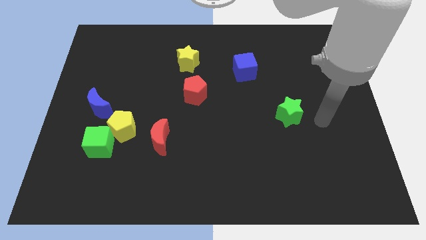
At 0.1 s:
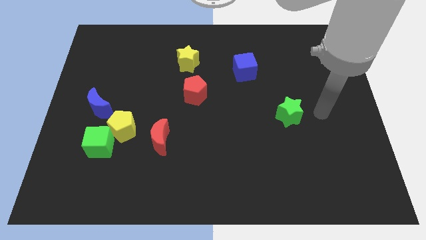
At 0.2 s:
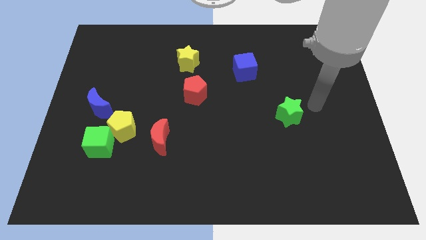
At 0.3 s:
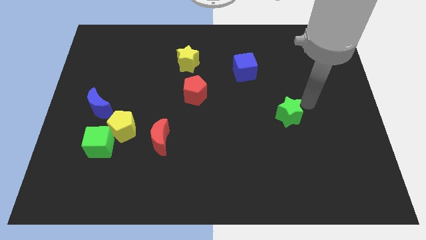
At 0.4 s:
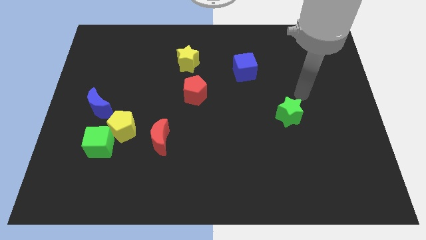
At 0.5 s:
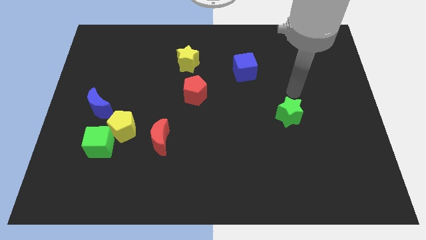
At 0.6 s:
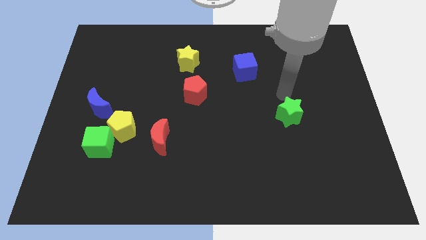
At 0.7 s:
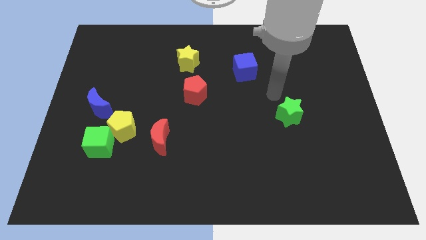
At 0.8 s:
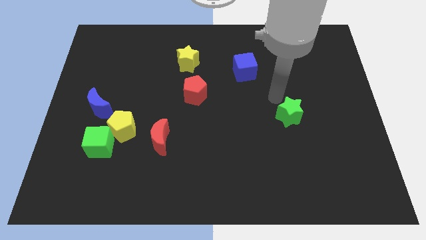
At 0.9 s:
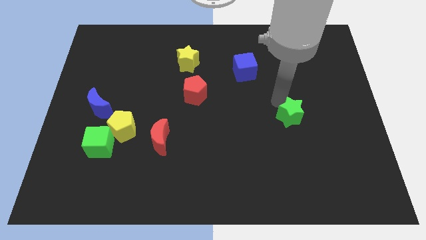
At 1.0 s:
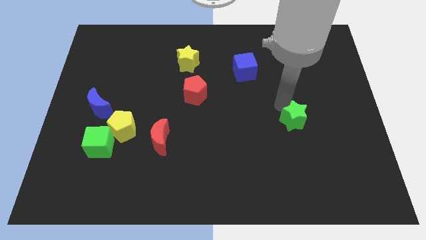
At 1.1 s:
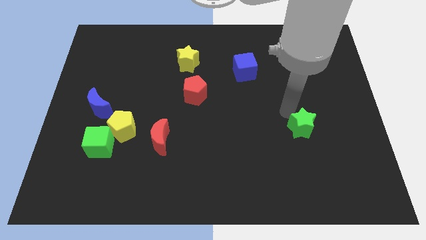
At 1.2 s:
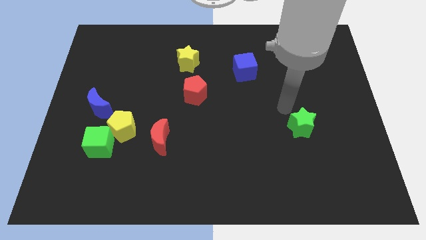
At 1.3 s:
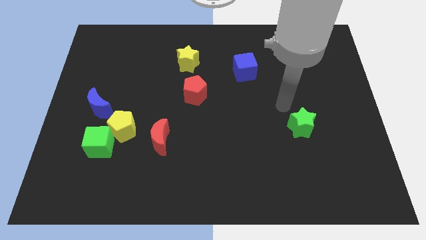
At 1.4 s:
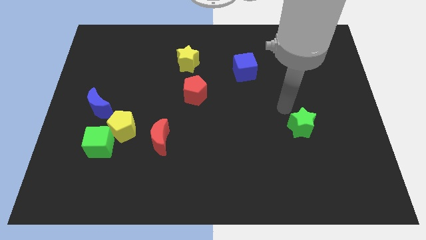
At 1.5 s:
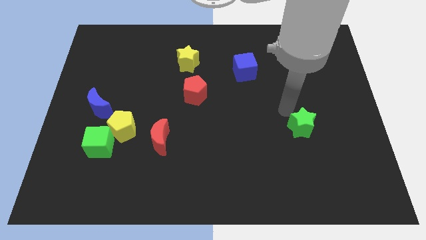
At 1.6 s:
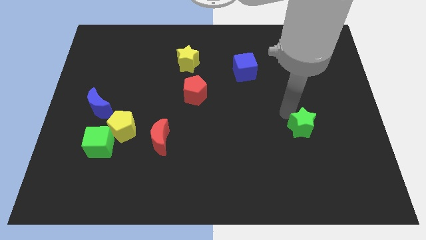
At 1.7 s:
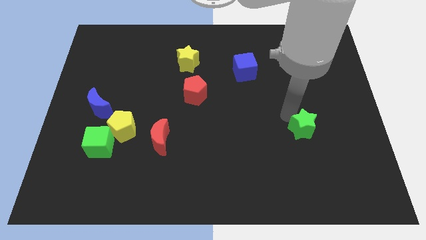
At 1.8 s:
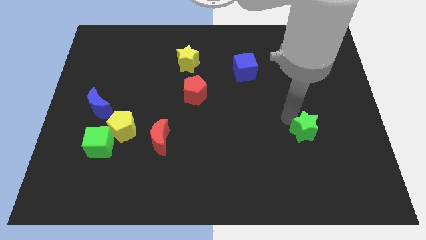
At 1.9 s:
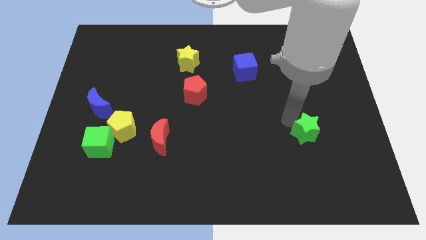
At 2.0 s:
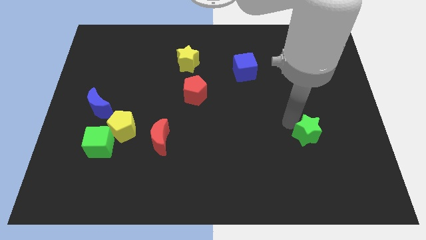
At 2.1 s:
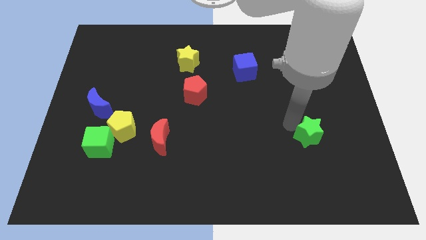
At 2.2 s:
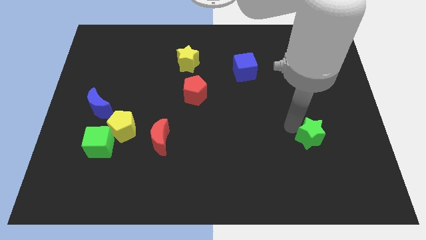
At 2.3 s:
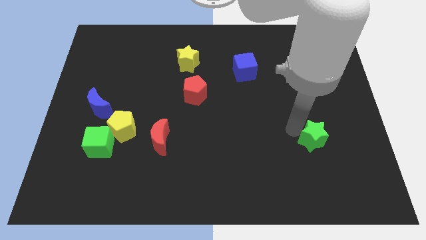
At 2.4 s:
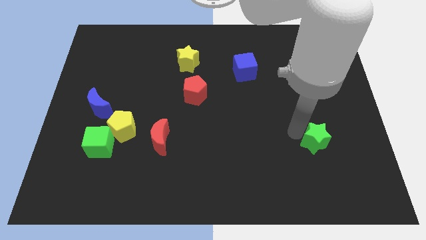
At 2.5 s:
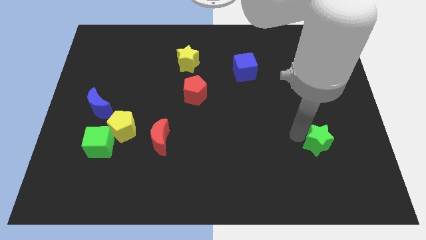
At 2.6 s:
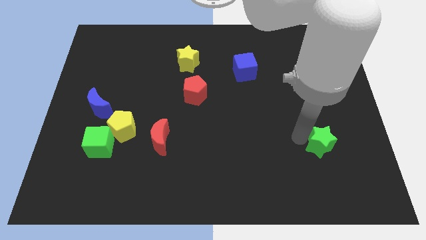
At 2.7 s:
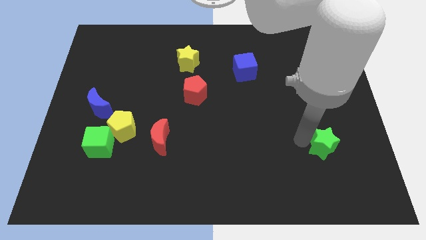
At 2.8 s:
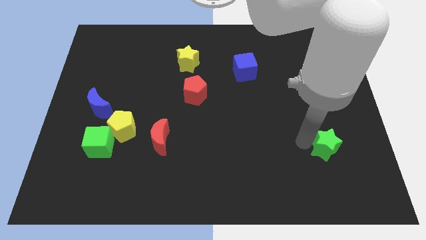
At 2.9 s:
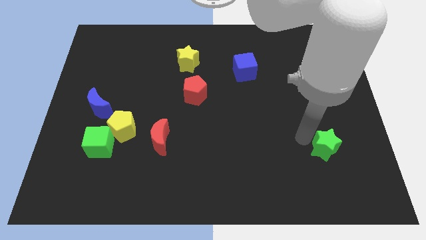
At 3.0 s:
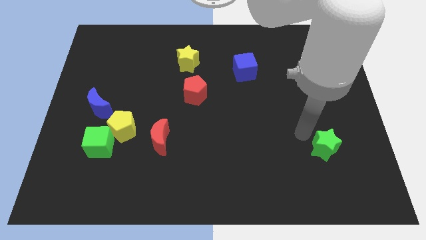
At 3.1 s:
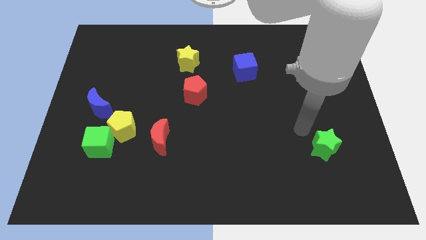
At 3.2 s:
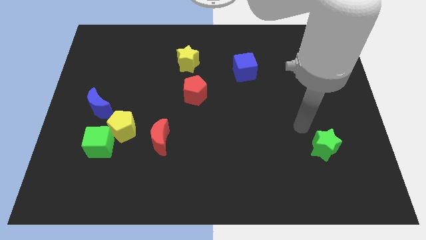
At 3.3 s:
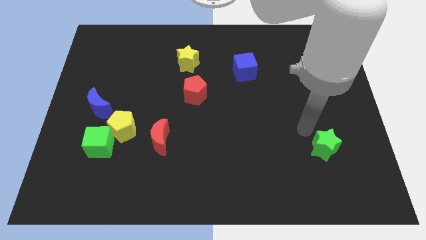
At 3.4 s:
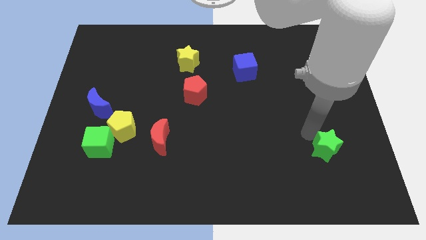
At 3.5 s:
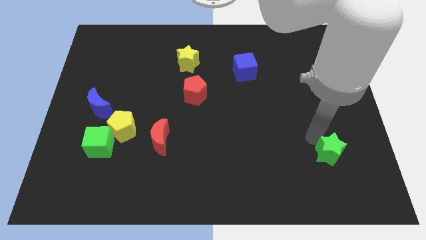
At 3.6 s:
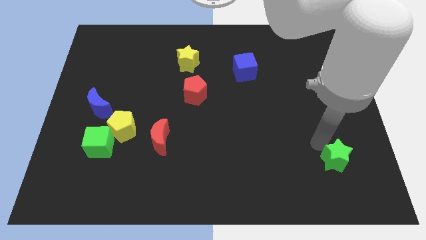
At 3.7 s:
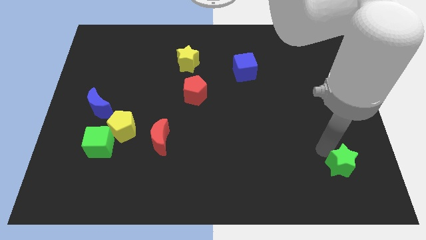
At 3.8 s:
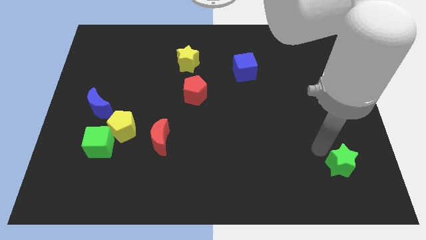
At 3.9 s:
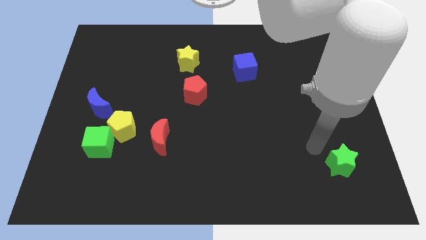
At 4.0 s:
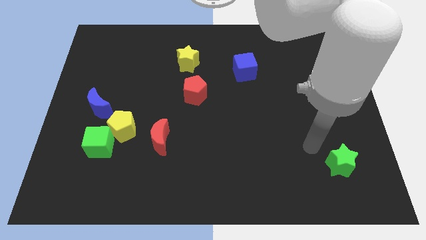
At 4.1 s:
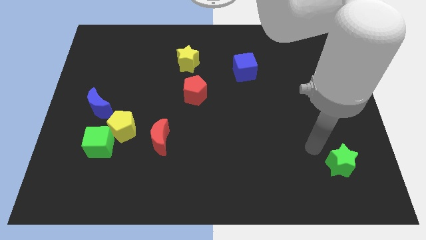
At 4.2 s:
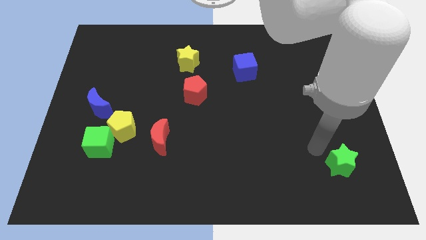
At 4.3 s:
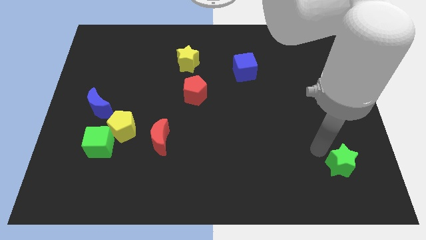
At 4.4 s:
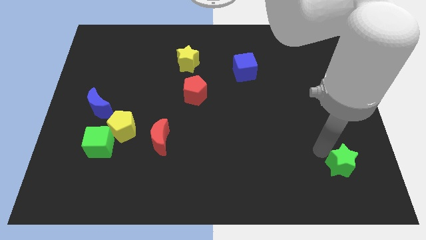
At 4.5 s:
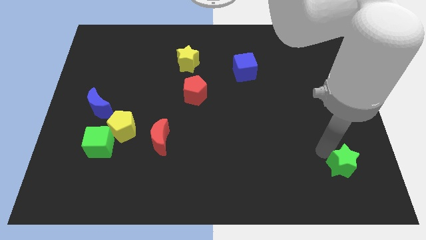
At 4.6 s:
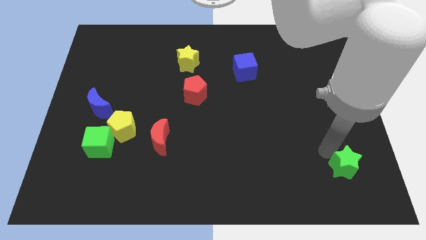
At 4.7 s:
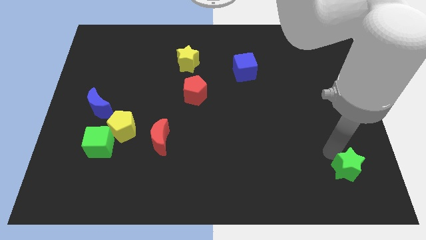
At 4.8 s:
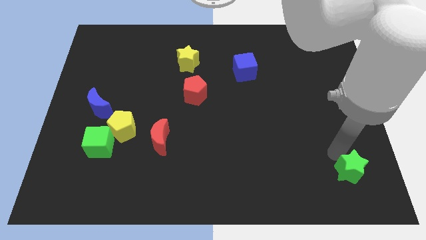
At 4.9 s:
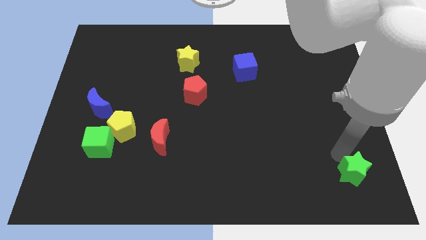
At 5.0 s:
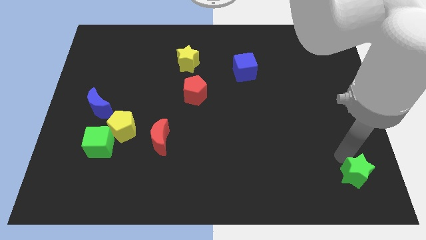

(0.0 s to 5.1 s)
put the green star to the bottom right

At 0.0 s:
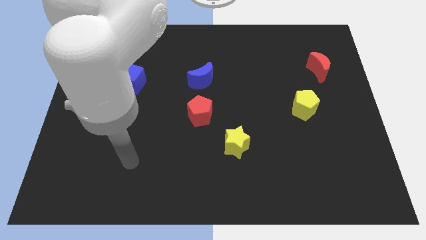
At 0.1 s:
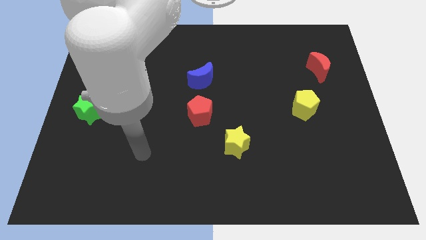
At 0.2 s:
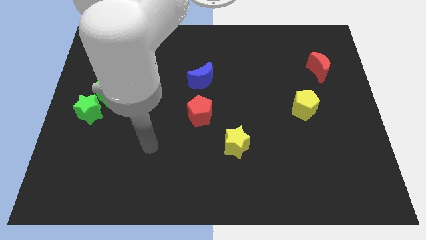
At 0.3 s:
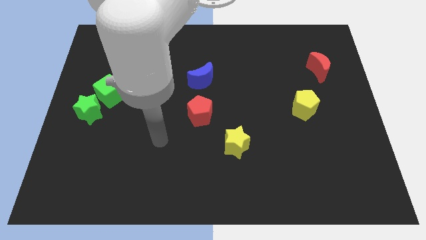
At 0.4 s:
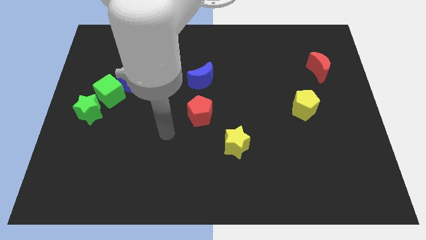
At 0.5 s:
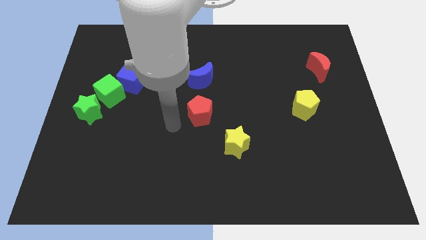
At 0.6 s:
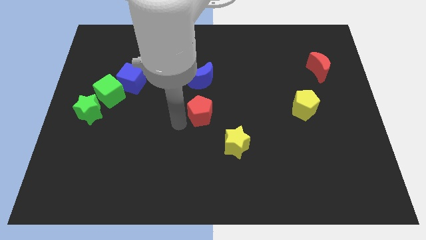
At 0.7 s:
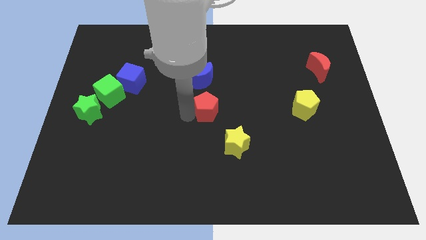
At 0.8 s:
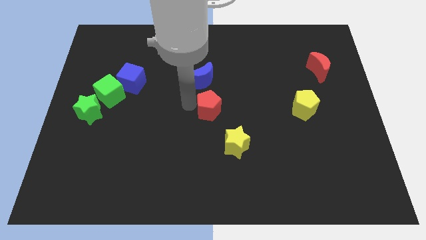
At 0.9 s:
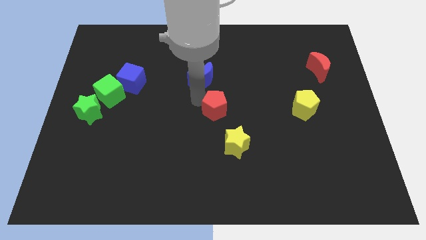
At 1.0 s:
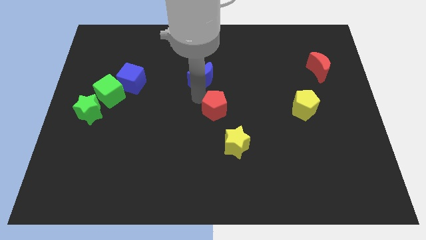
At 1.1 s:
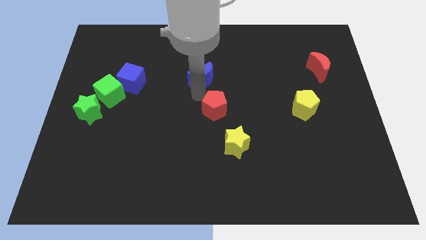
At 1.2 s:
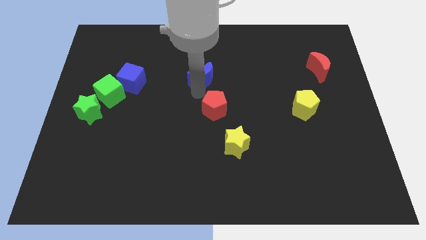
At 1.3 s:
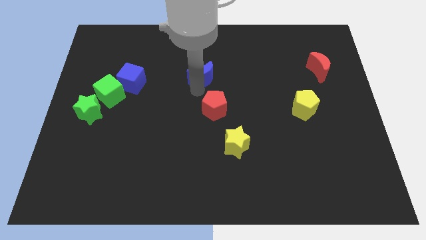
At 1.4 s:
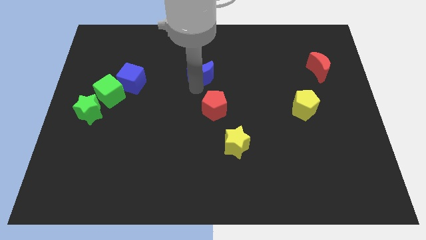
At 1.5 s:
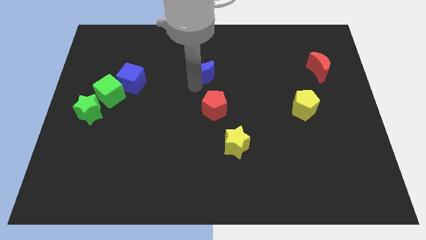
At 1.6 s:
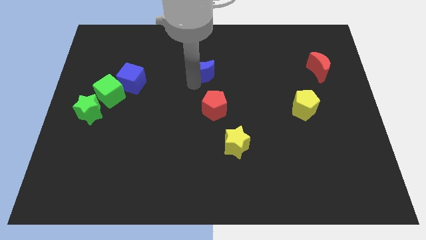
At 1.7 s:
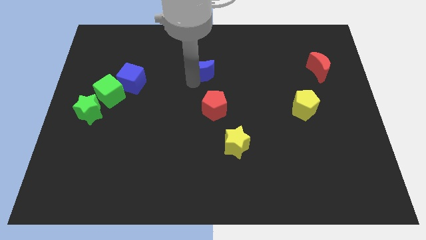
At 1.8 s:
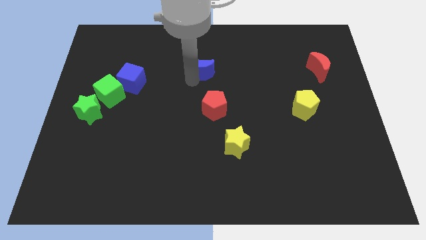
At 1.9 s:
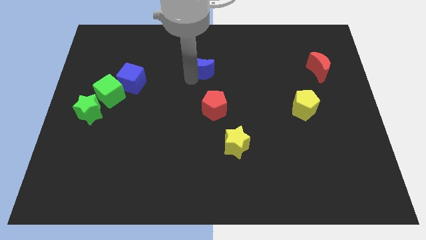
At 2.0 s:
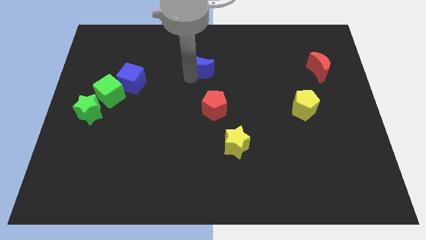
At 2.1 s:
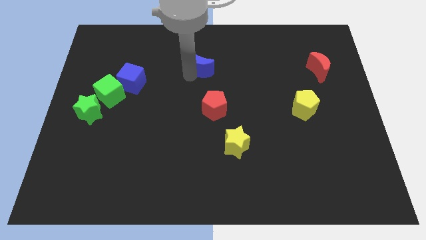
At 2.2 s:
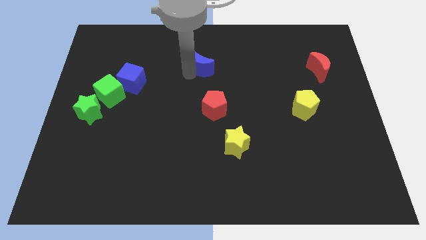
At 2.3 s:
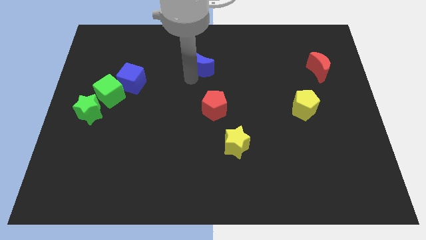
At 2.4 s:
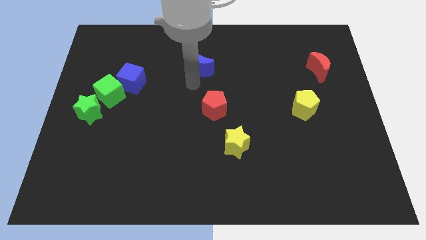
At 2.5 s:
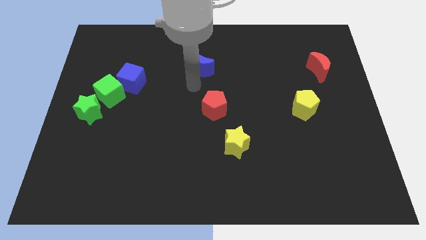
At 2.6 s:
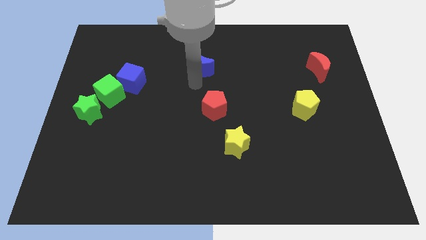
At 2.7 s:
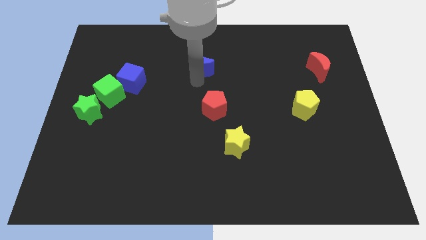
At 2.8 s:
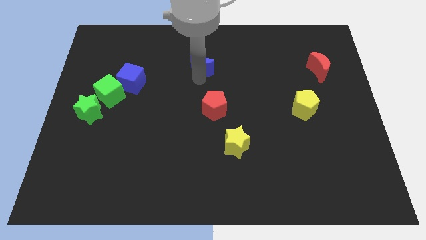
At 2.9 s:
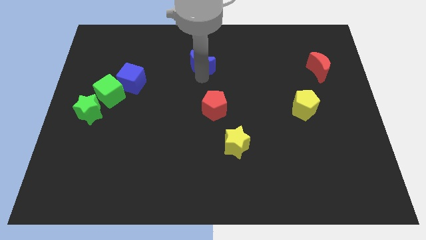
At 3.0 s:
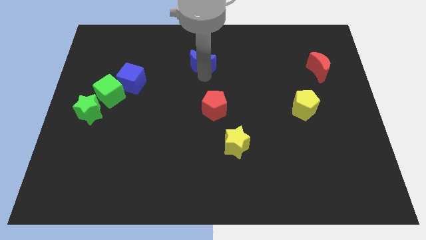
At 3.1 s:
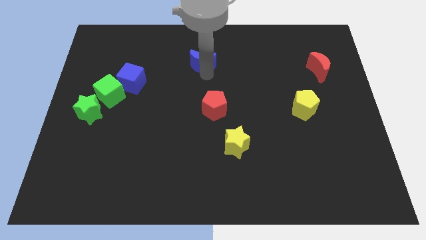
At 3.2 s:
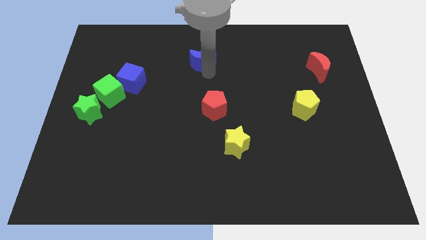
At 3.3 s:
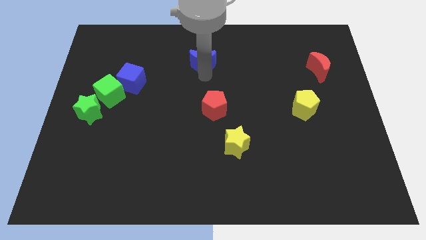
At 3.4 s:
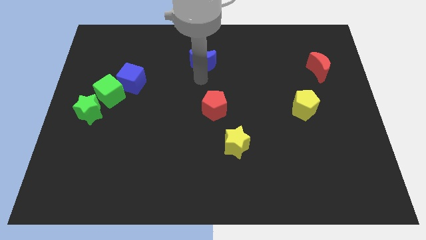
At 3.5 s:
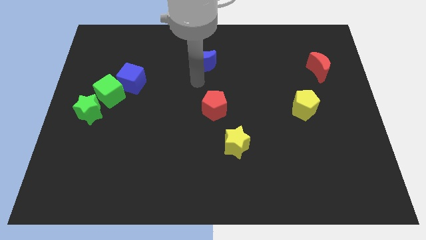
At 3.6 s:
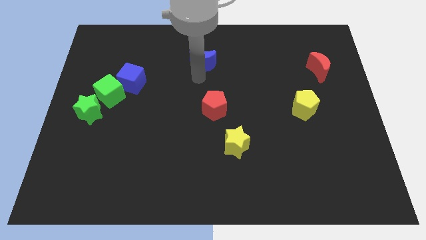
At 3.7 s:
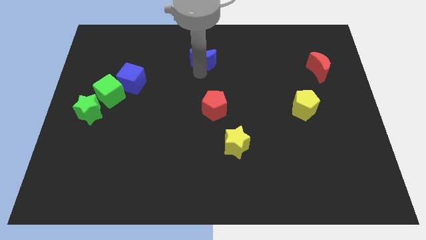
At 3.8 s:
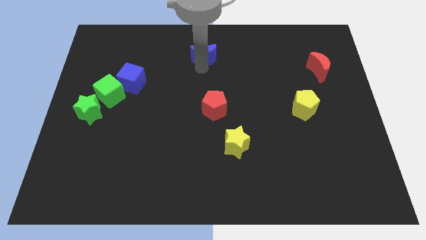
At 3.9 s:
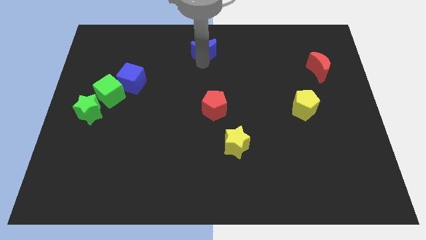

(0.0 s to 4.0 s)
slide the blue moon to the towards your base
